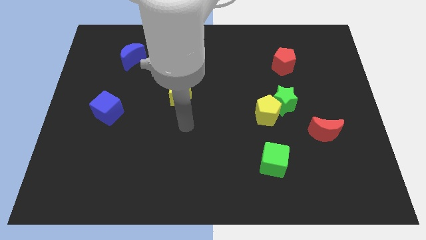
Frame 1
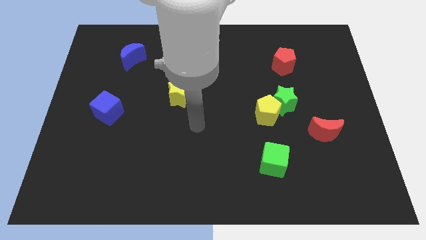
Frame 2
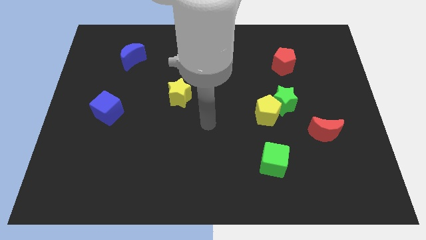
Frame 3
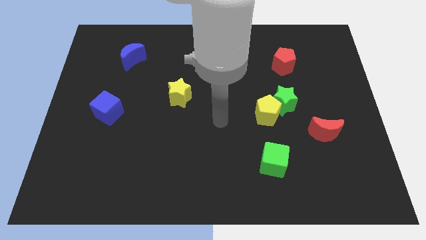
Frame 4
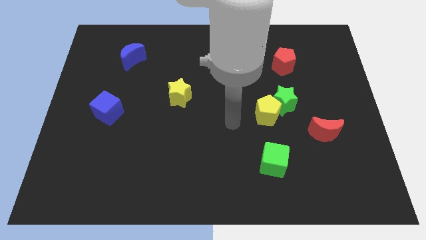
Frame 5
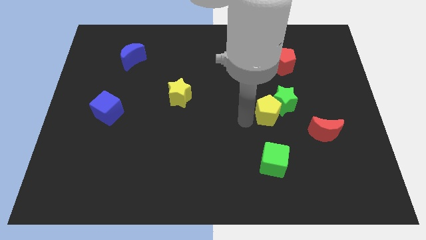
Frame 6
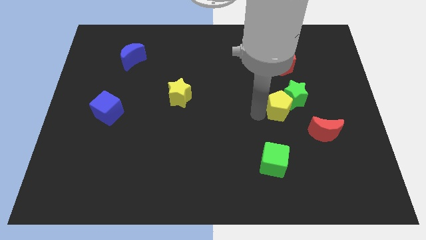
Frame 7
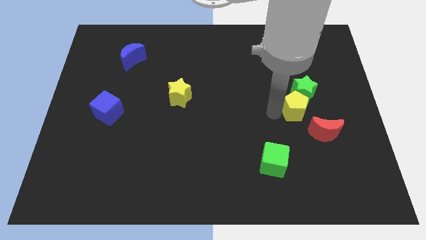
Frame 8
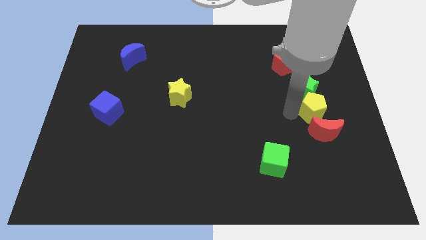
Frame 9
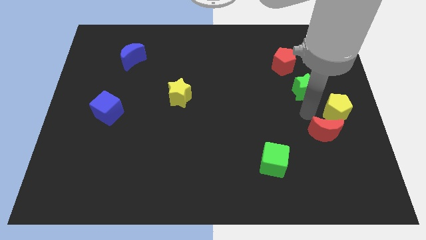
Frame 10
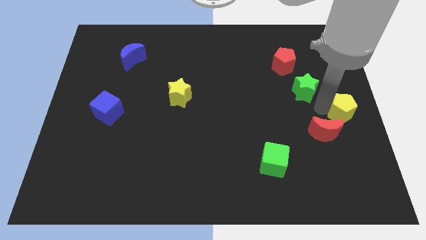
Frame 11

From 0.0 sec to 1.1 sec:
separate the green star from the yellow pentagon

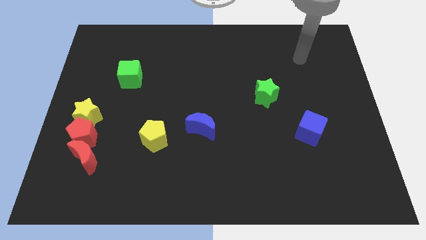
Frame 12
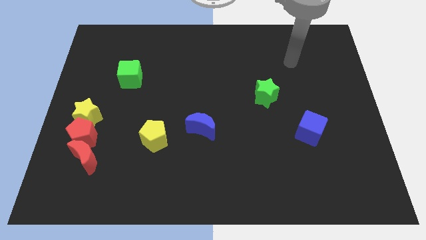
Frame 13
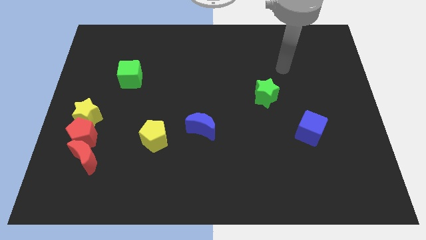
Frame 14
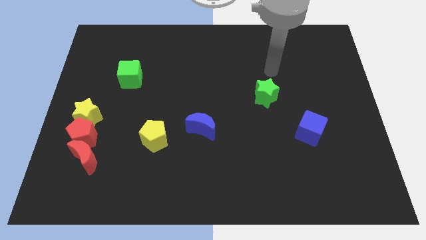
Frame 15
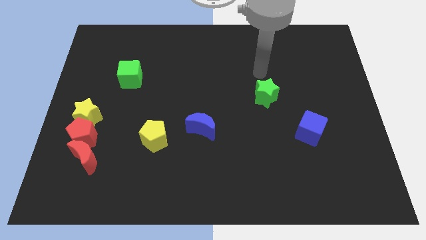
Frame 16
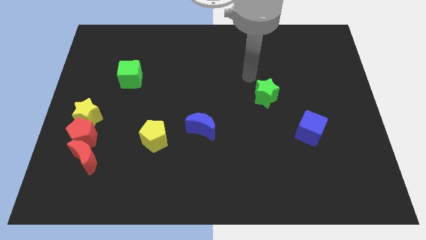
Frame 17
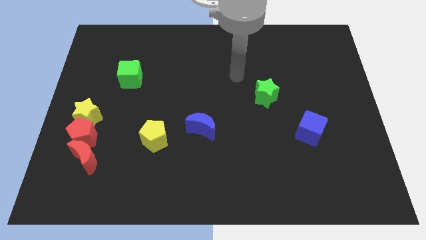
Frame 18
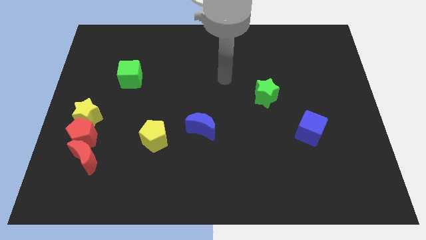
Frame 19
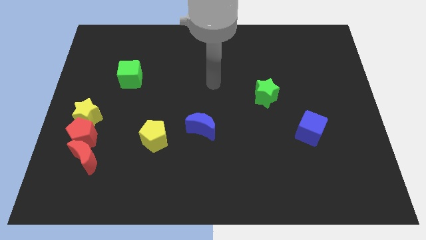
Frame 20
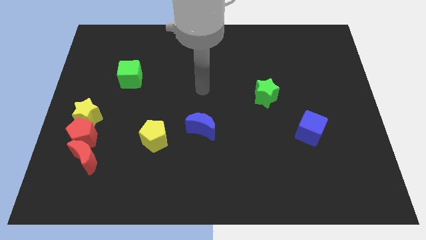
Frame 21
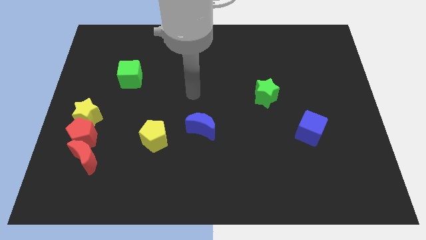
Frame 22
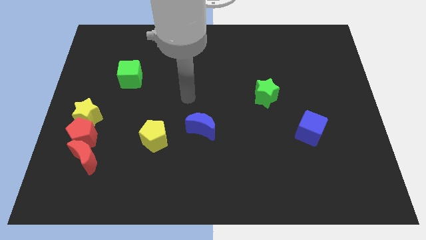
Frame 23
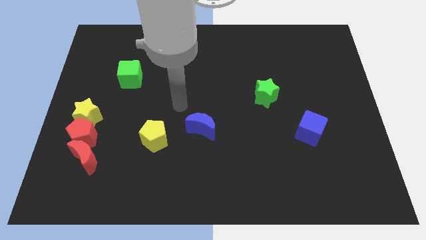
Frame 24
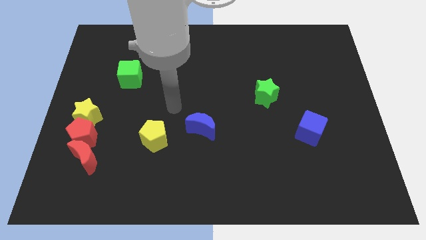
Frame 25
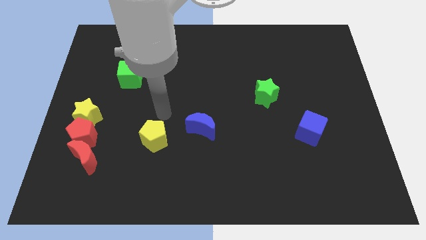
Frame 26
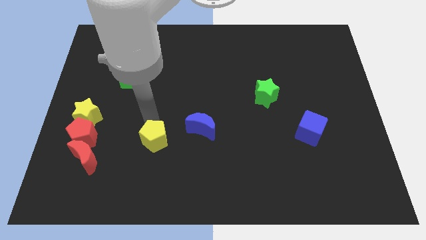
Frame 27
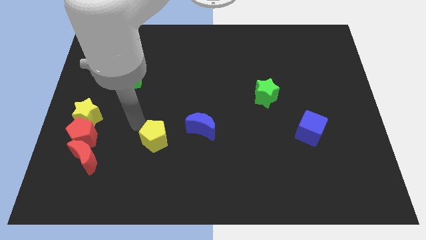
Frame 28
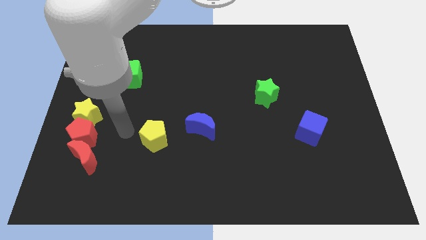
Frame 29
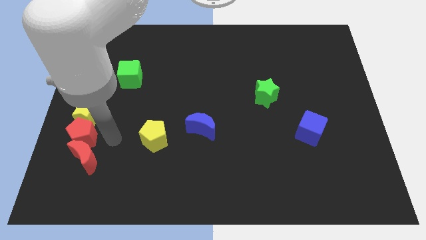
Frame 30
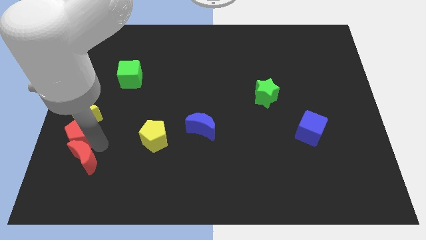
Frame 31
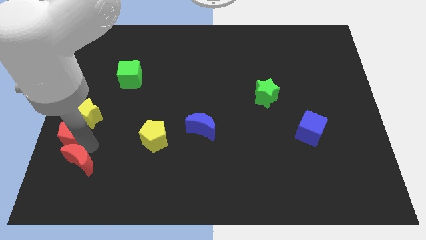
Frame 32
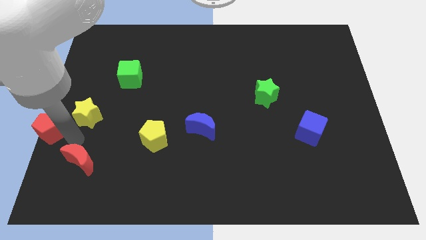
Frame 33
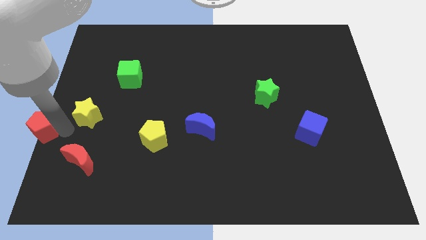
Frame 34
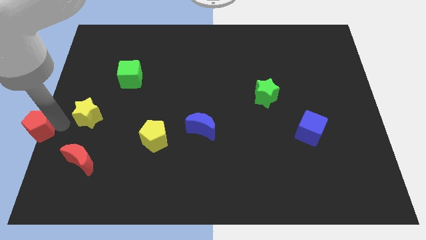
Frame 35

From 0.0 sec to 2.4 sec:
pull the yellow star apart from the red pentagon

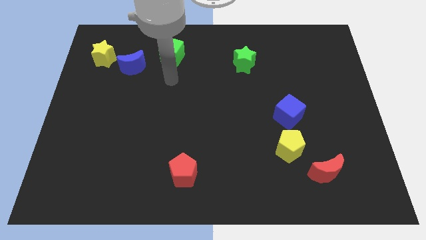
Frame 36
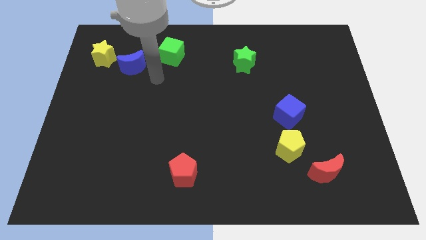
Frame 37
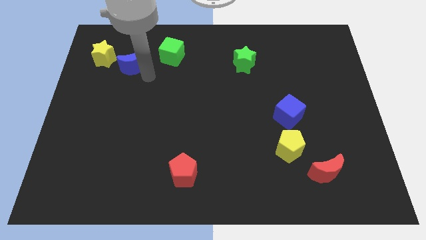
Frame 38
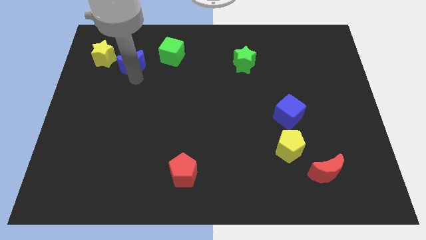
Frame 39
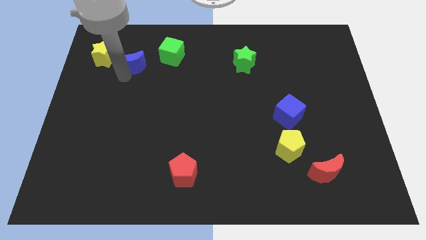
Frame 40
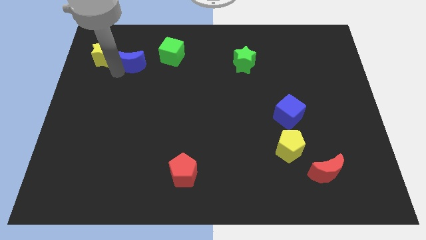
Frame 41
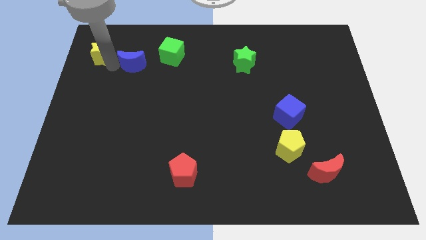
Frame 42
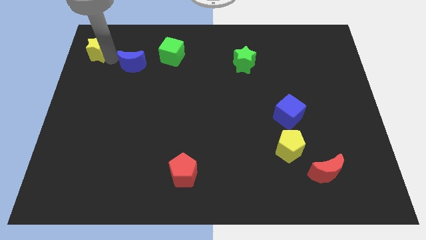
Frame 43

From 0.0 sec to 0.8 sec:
move the blue moon away from the yellow star

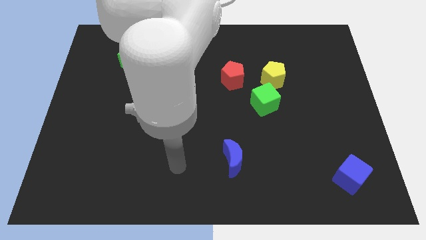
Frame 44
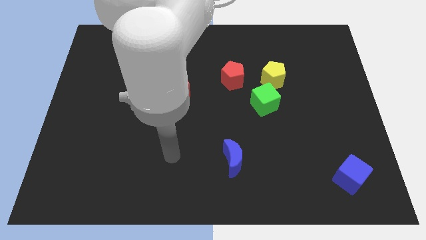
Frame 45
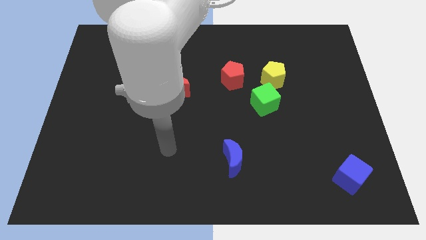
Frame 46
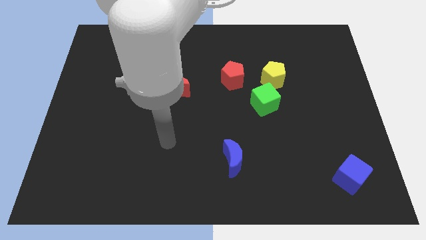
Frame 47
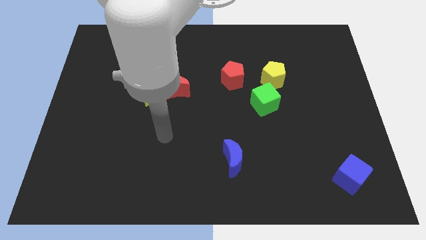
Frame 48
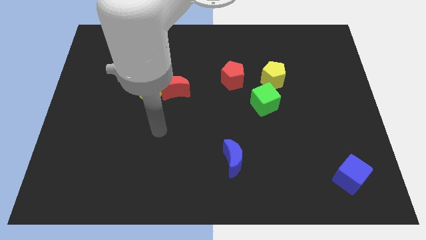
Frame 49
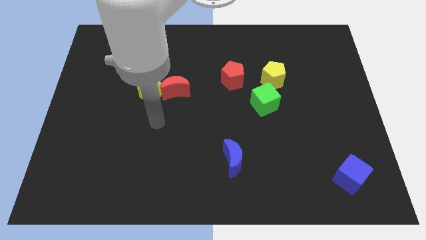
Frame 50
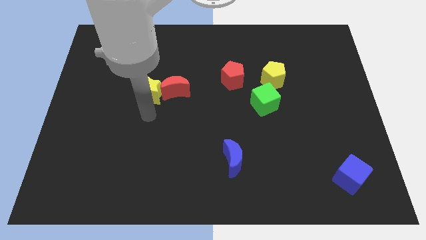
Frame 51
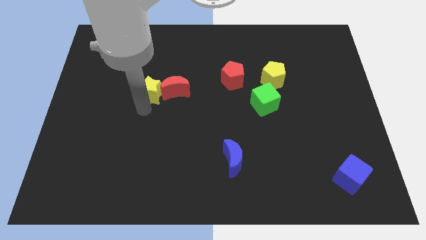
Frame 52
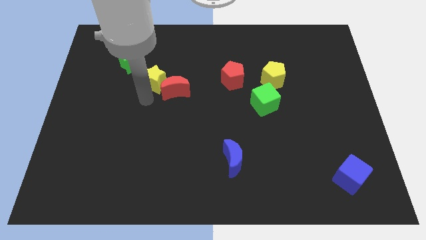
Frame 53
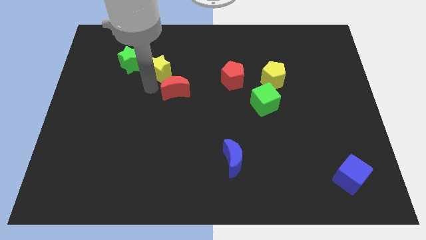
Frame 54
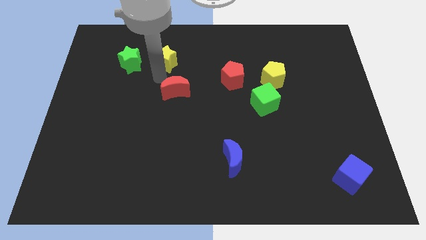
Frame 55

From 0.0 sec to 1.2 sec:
separate the red moon from the yellow star

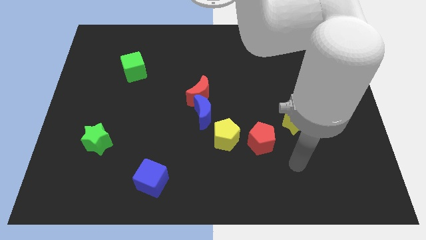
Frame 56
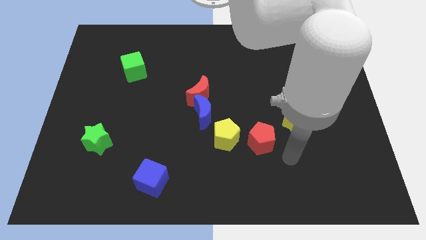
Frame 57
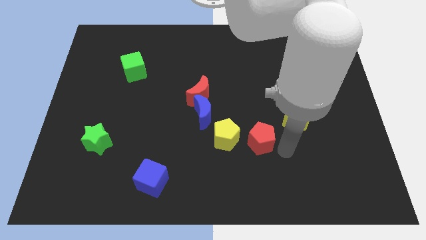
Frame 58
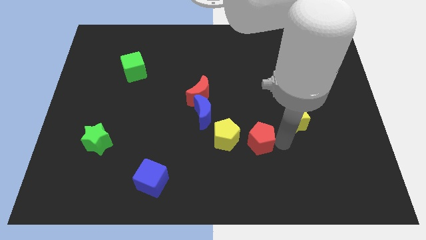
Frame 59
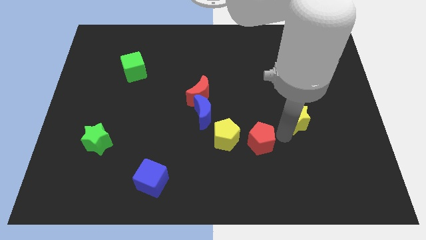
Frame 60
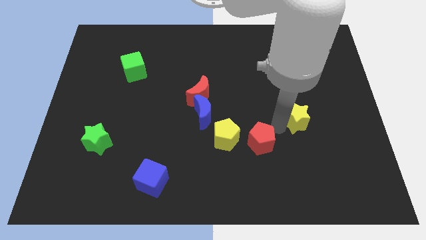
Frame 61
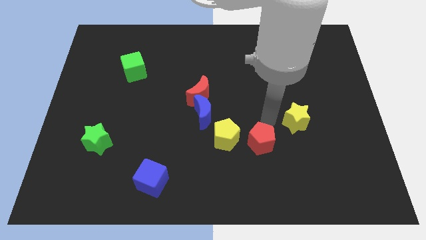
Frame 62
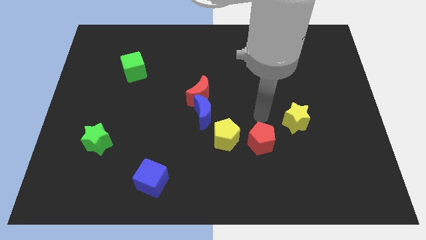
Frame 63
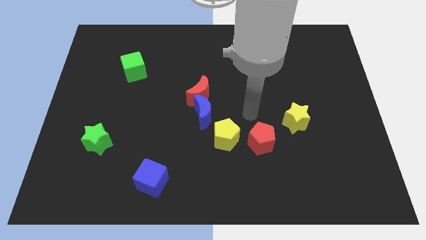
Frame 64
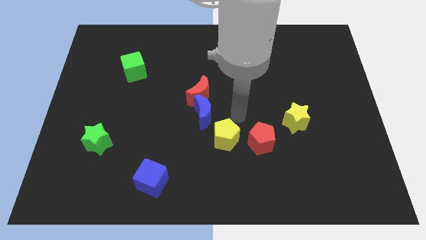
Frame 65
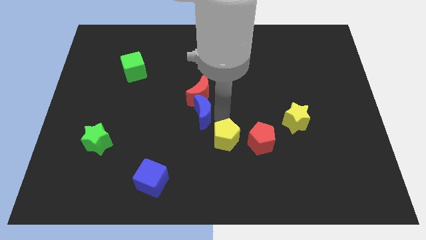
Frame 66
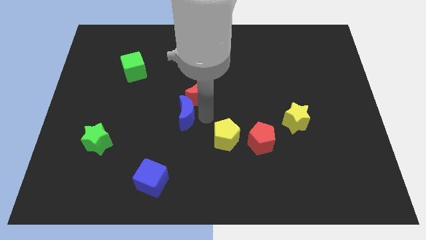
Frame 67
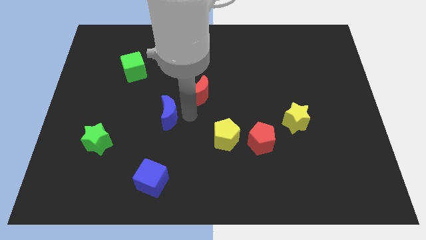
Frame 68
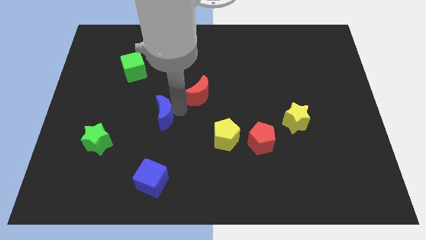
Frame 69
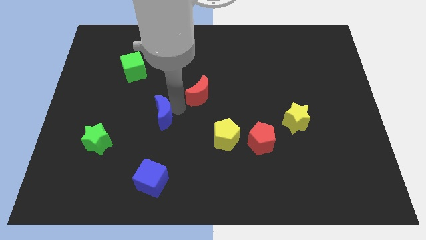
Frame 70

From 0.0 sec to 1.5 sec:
separate the red moon from the blue moon

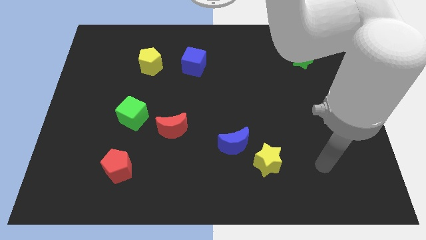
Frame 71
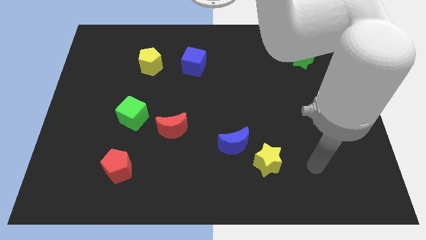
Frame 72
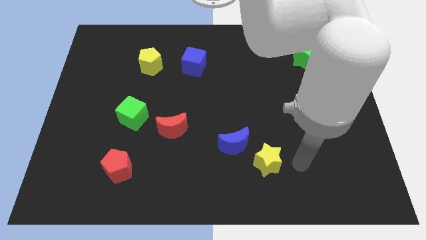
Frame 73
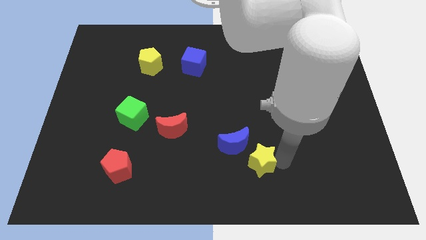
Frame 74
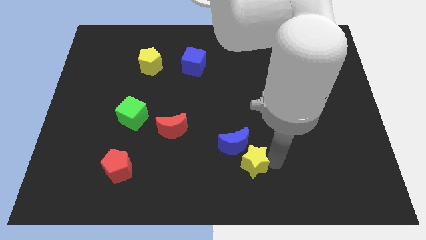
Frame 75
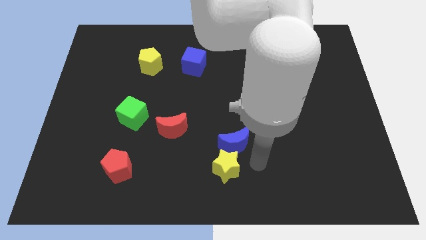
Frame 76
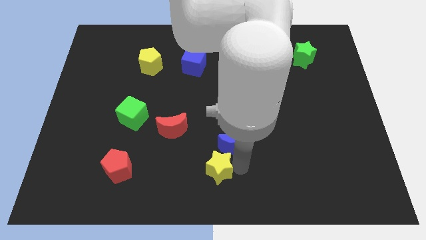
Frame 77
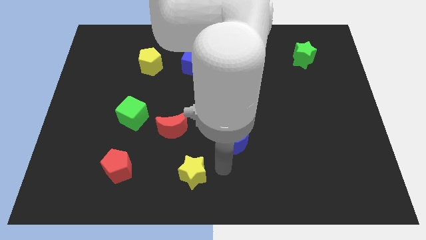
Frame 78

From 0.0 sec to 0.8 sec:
separate the blue moon from the yellow star

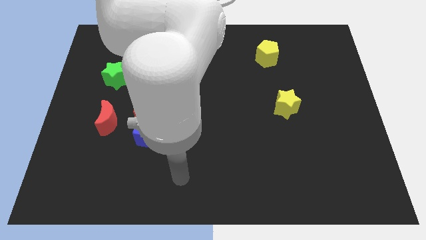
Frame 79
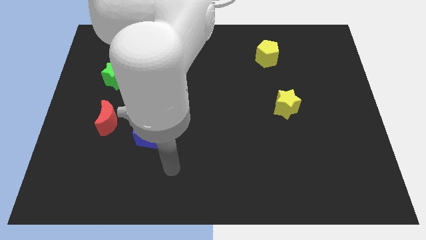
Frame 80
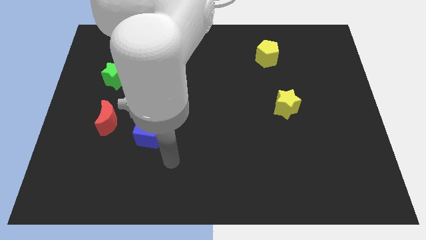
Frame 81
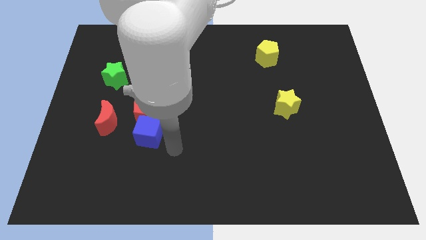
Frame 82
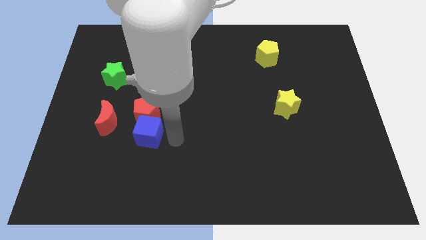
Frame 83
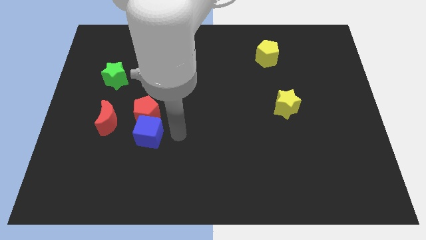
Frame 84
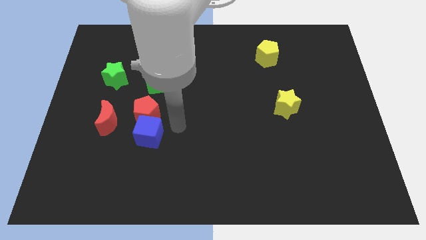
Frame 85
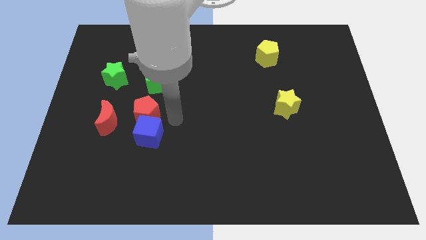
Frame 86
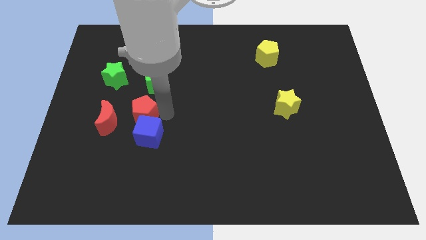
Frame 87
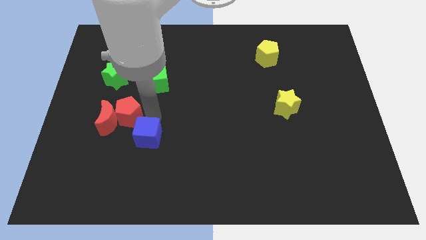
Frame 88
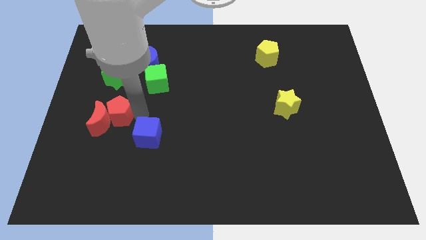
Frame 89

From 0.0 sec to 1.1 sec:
pull the blue cube apart from the red pentagon and red moon

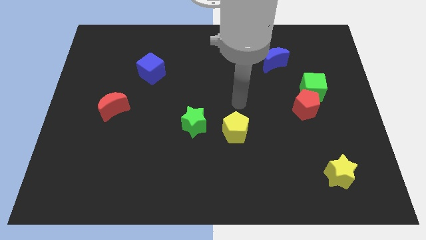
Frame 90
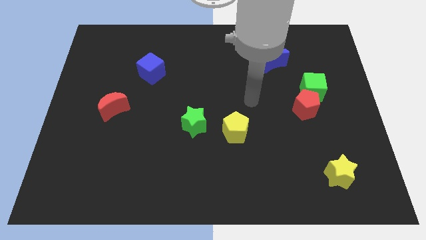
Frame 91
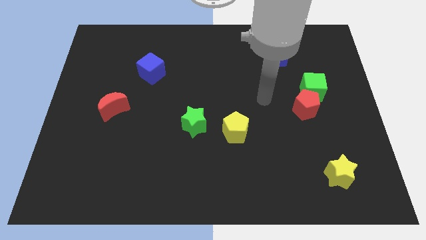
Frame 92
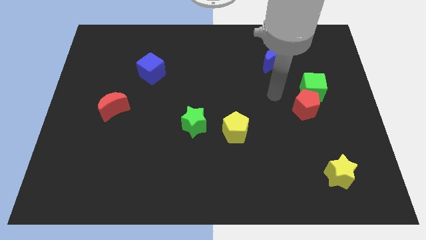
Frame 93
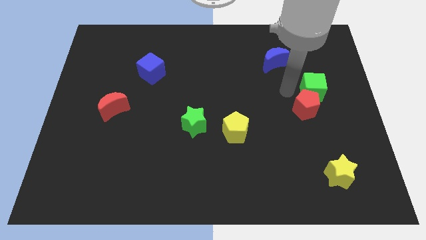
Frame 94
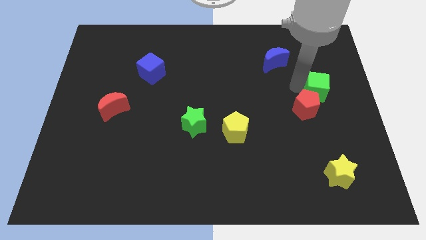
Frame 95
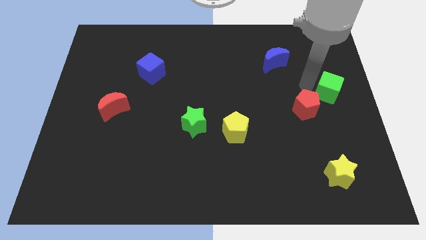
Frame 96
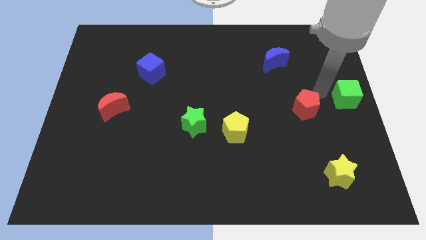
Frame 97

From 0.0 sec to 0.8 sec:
pull the red pentagon apart from the green cube
